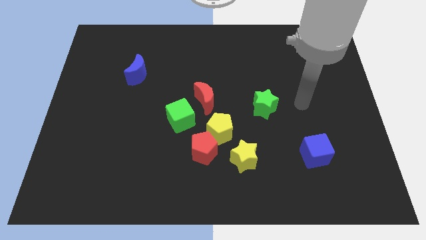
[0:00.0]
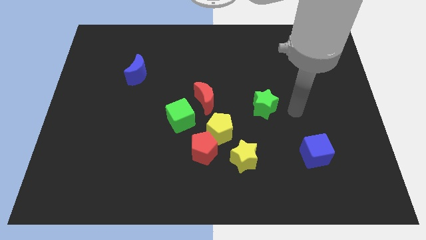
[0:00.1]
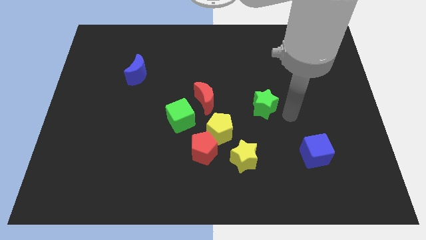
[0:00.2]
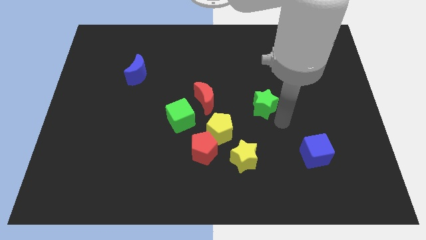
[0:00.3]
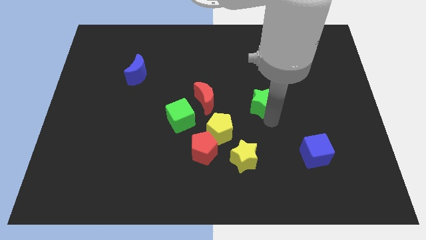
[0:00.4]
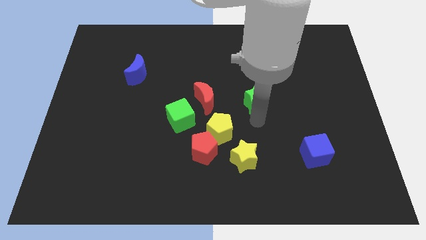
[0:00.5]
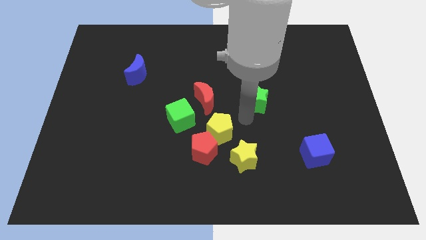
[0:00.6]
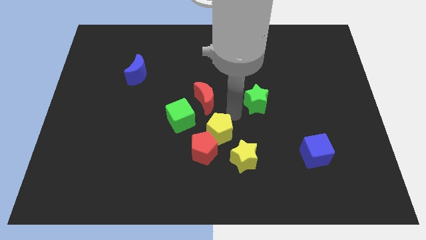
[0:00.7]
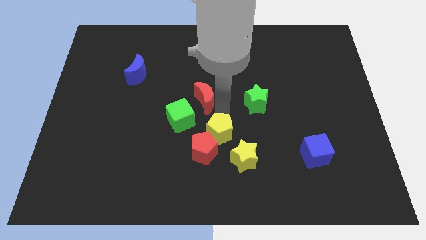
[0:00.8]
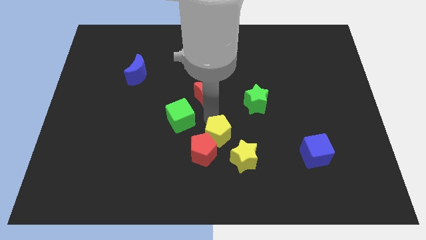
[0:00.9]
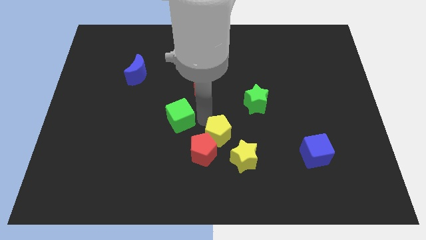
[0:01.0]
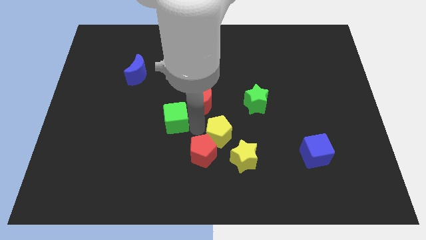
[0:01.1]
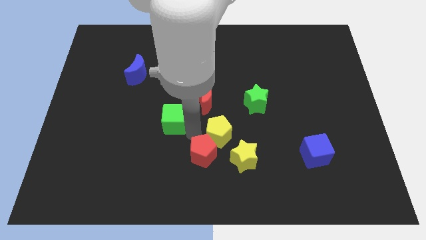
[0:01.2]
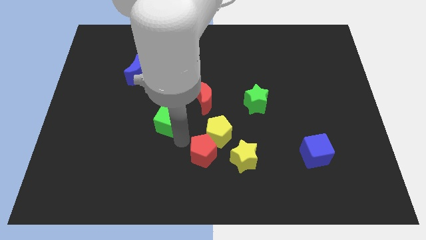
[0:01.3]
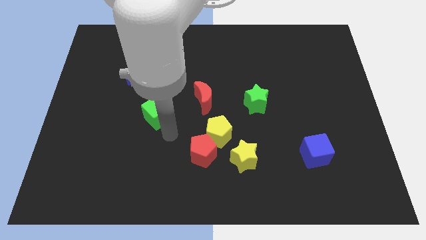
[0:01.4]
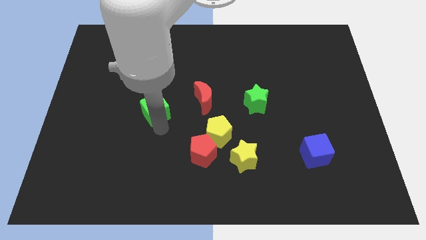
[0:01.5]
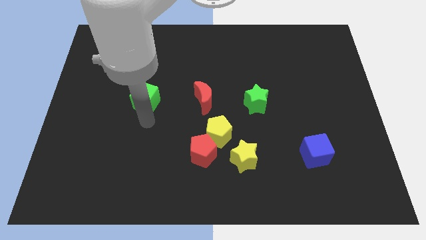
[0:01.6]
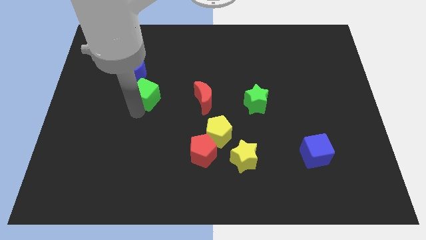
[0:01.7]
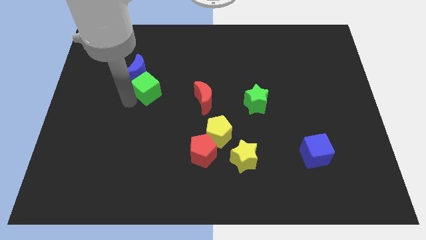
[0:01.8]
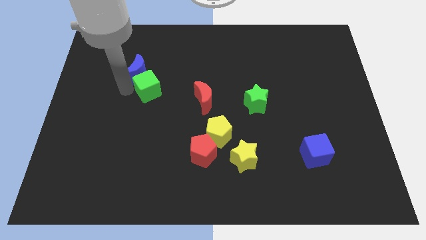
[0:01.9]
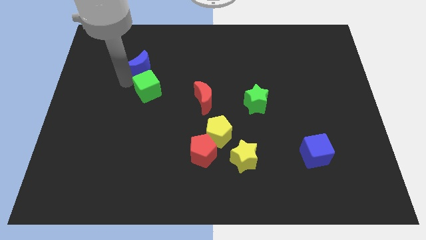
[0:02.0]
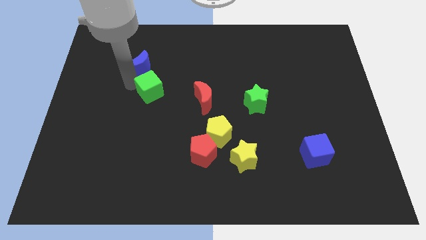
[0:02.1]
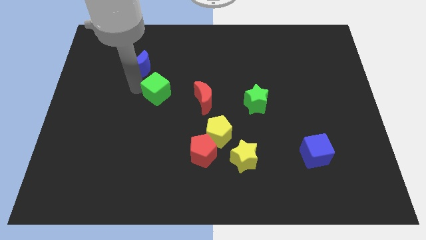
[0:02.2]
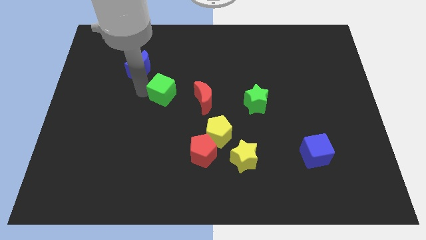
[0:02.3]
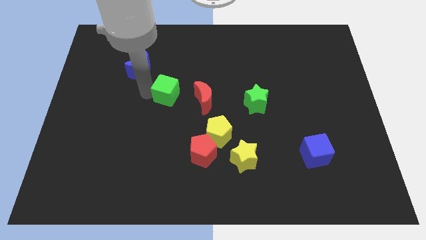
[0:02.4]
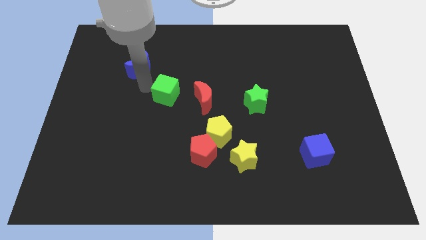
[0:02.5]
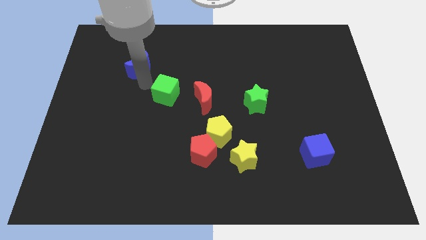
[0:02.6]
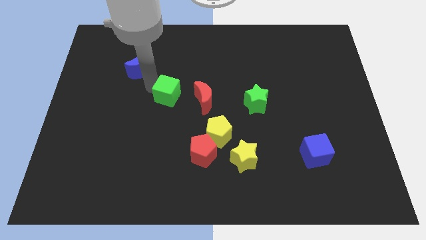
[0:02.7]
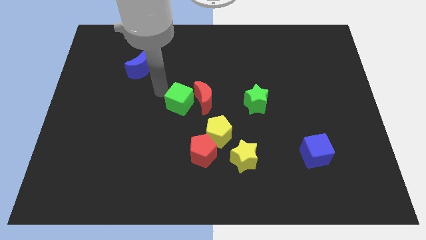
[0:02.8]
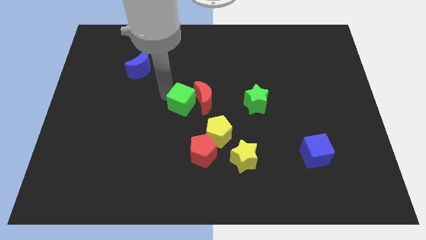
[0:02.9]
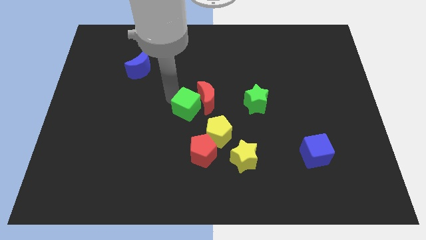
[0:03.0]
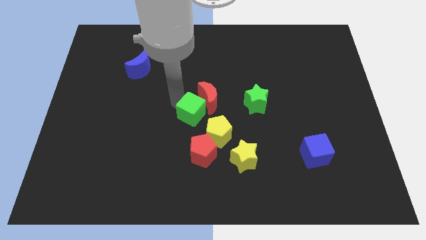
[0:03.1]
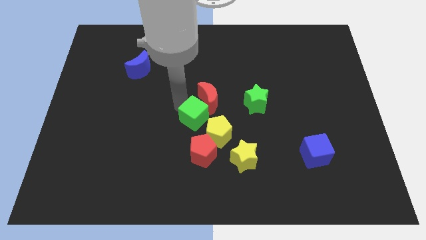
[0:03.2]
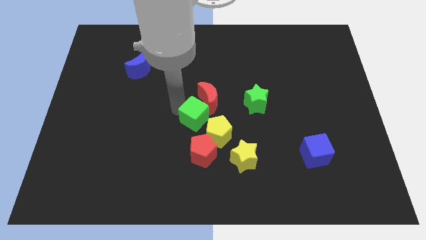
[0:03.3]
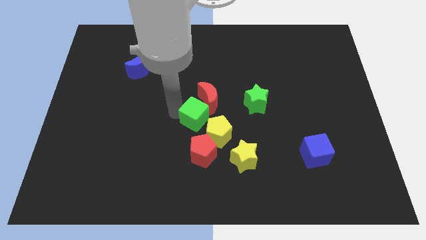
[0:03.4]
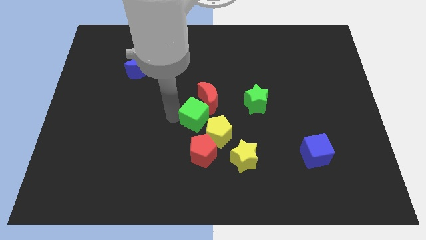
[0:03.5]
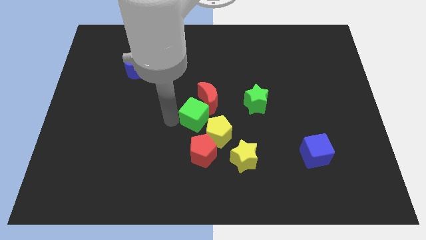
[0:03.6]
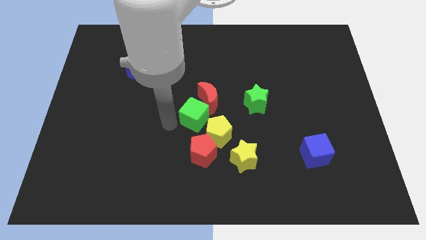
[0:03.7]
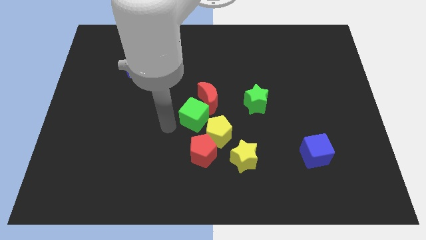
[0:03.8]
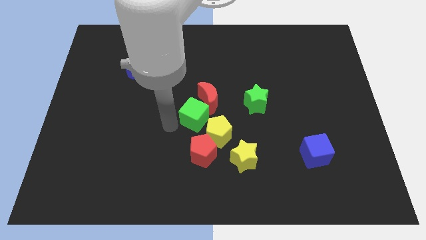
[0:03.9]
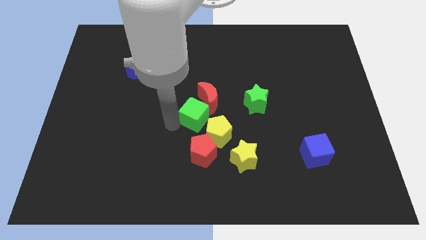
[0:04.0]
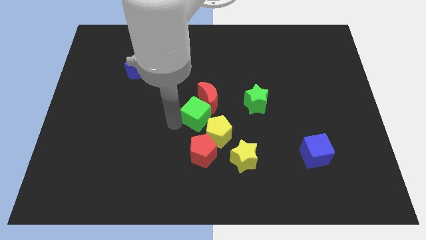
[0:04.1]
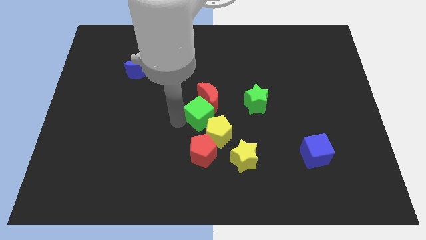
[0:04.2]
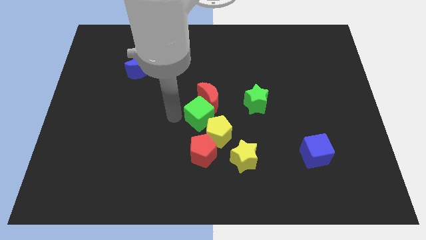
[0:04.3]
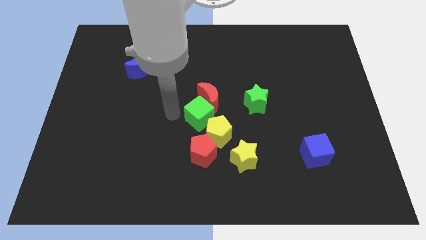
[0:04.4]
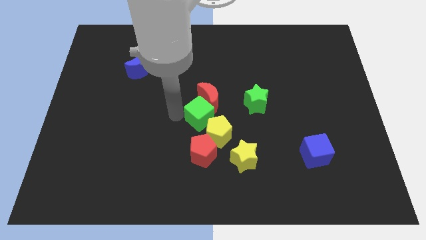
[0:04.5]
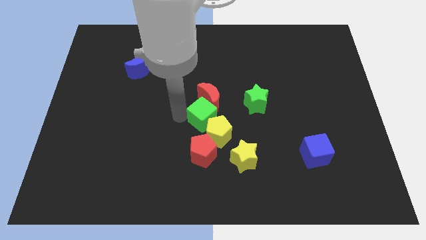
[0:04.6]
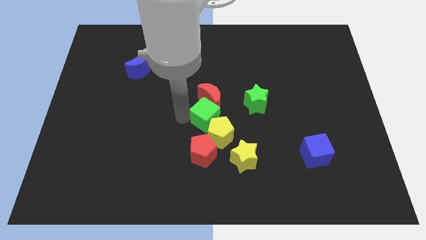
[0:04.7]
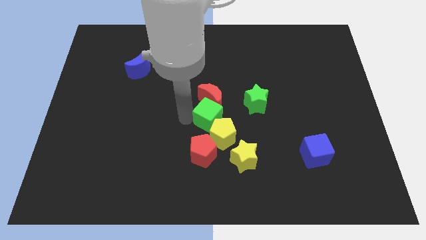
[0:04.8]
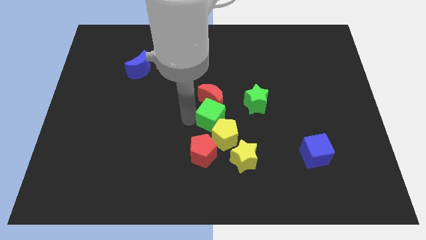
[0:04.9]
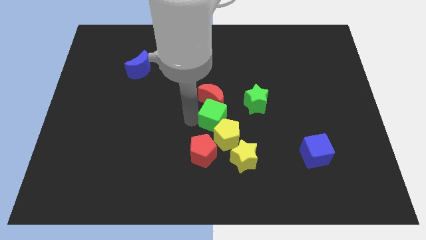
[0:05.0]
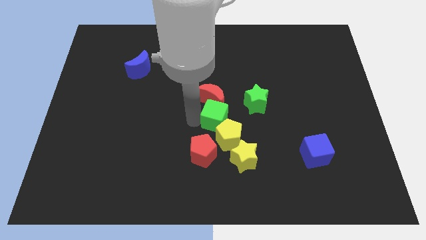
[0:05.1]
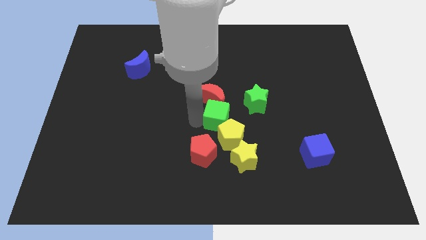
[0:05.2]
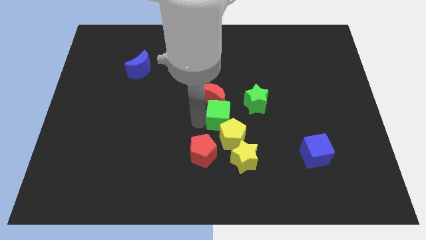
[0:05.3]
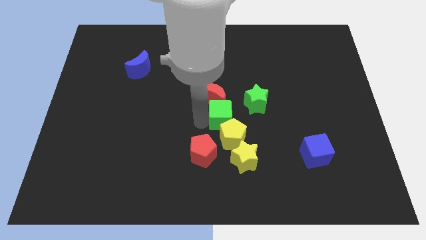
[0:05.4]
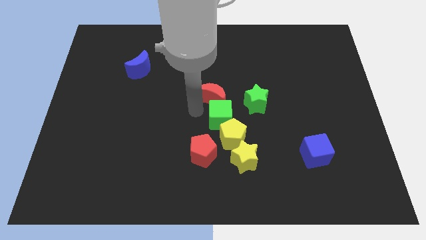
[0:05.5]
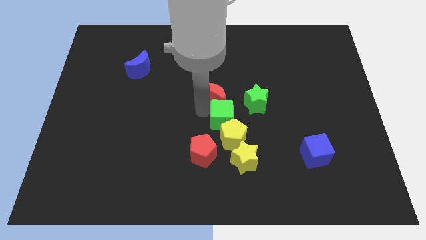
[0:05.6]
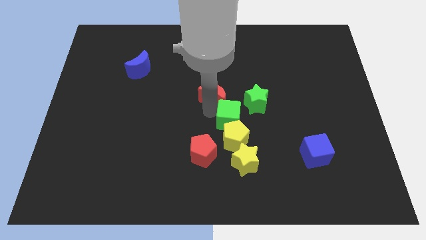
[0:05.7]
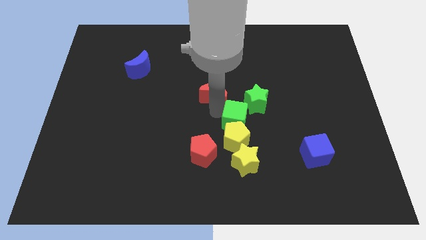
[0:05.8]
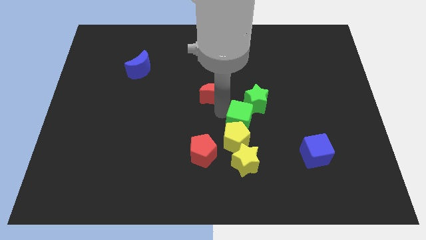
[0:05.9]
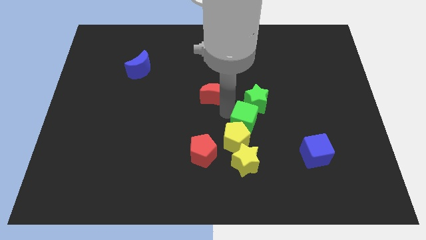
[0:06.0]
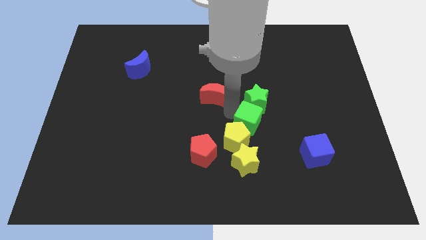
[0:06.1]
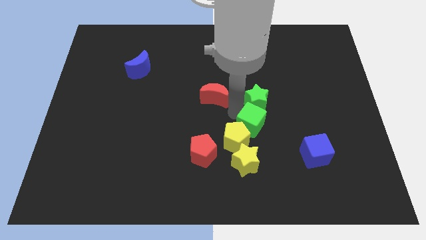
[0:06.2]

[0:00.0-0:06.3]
push the green cube to the right side of the yellow pentagon

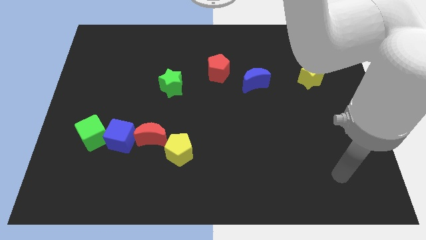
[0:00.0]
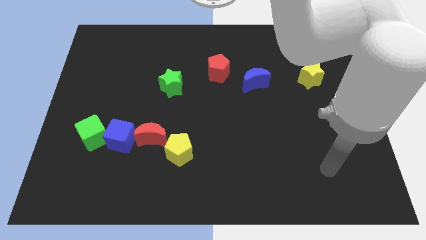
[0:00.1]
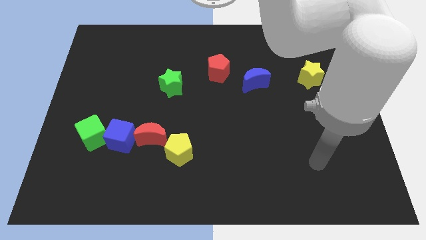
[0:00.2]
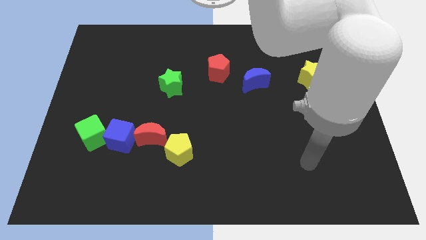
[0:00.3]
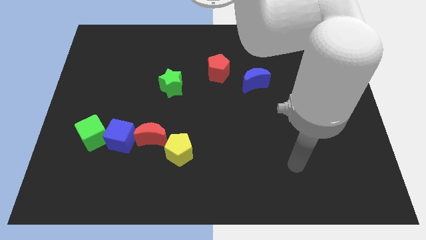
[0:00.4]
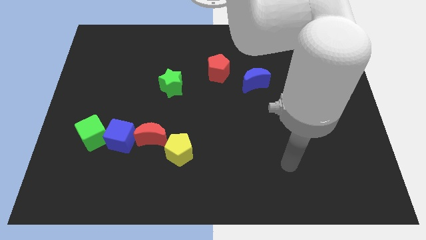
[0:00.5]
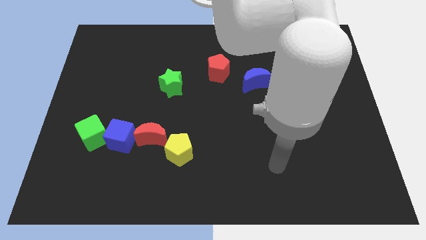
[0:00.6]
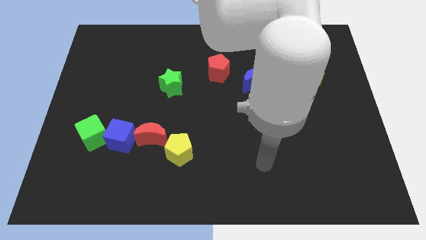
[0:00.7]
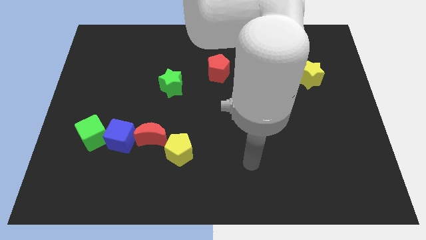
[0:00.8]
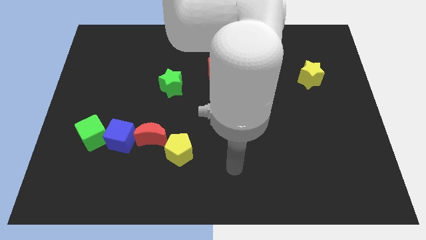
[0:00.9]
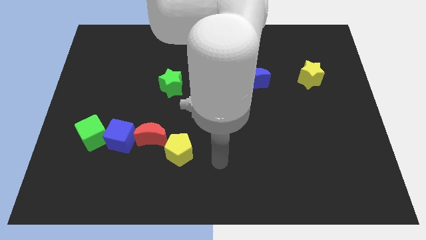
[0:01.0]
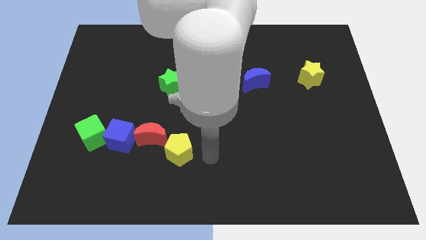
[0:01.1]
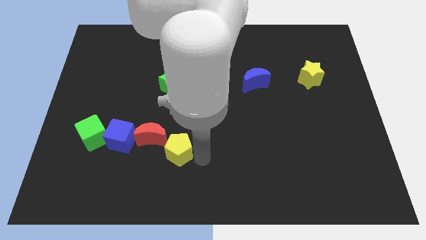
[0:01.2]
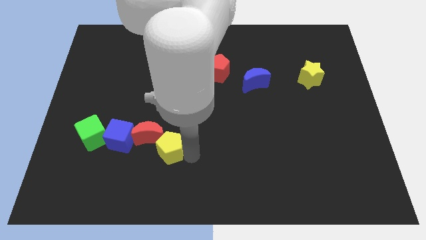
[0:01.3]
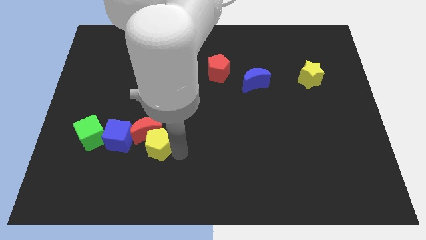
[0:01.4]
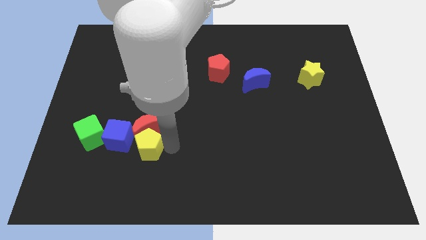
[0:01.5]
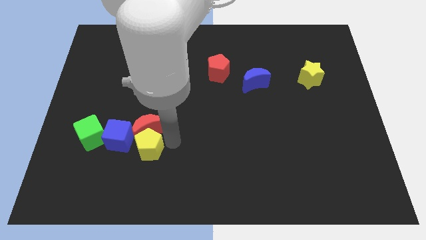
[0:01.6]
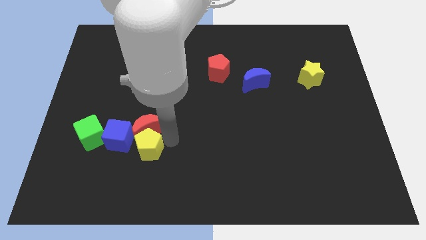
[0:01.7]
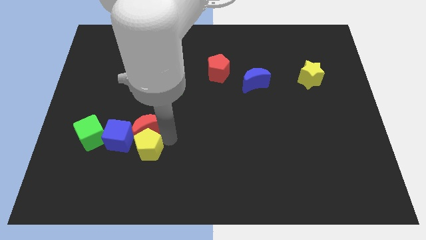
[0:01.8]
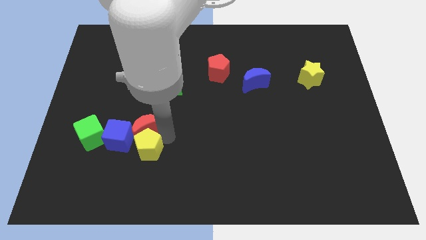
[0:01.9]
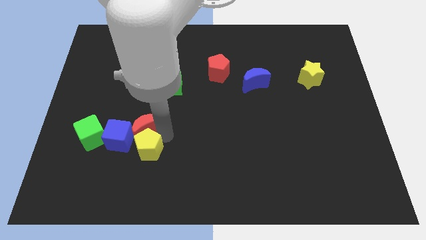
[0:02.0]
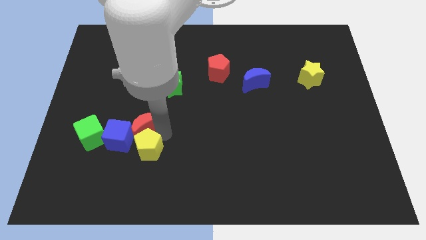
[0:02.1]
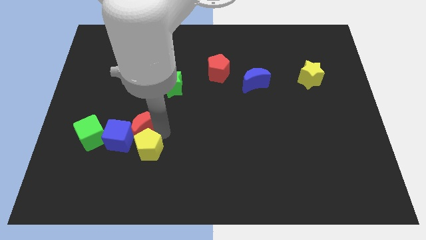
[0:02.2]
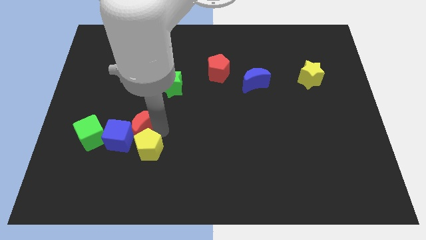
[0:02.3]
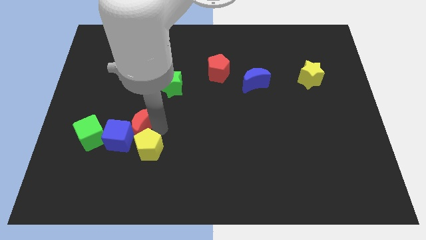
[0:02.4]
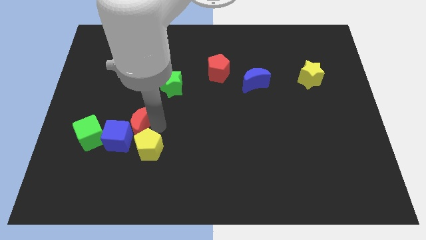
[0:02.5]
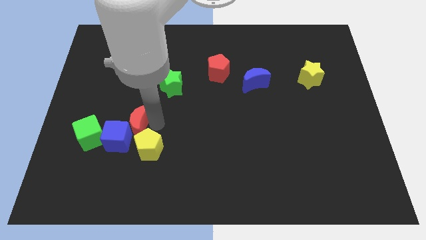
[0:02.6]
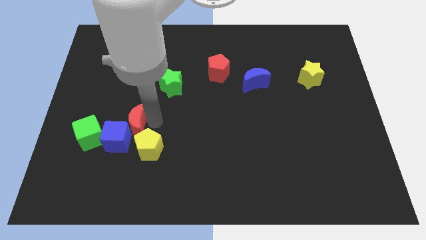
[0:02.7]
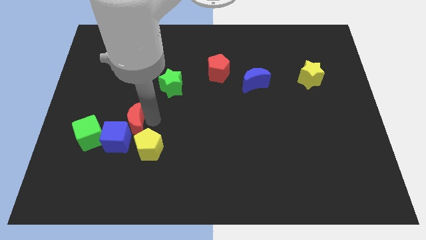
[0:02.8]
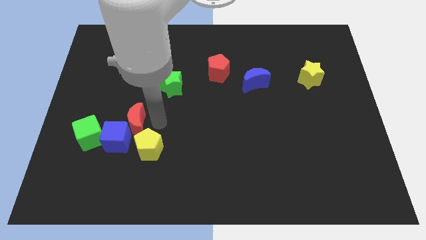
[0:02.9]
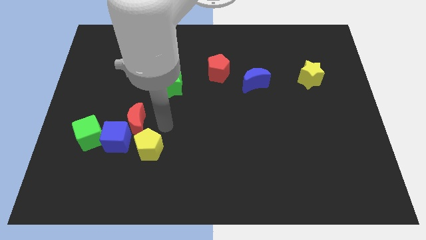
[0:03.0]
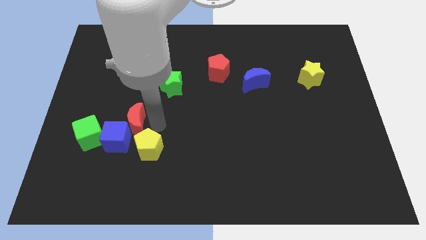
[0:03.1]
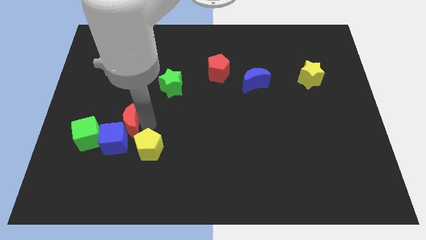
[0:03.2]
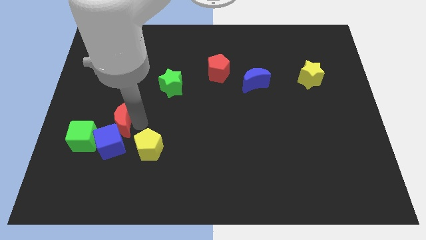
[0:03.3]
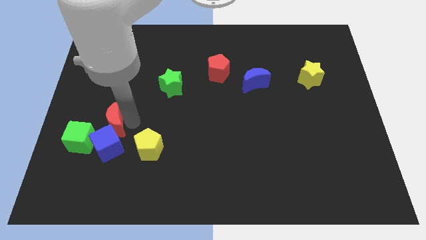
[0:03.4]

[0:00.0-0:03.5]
push the red moon diagonally up and to the left of the blue cube
